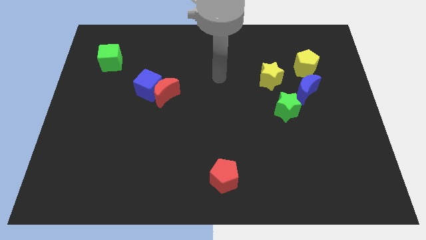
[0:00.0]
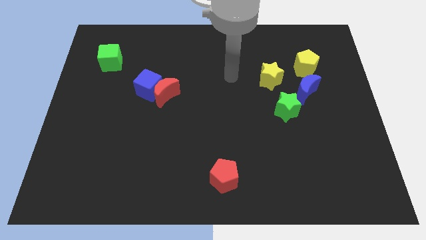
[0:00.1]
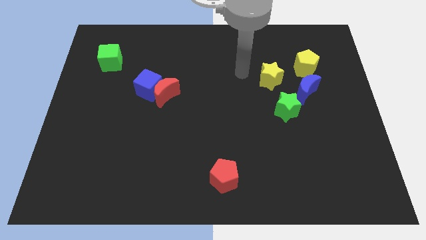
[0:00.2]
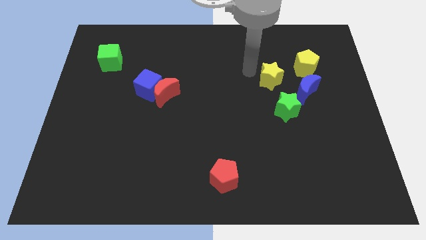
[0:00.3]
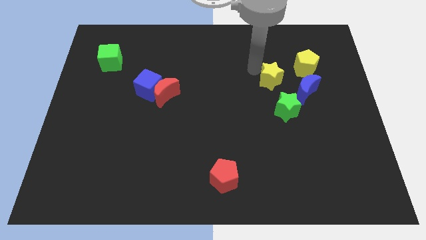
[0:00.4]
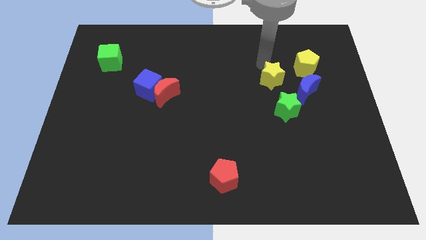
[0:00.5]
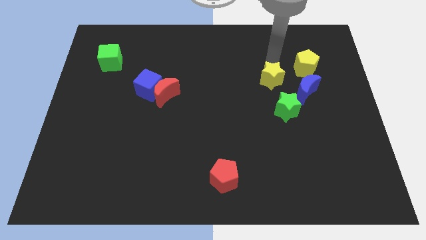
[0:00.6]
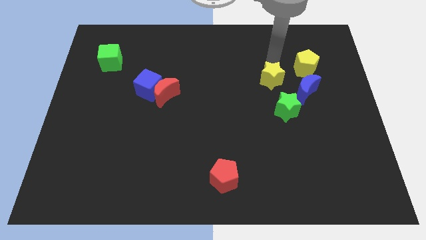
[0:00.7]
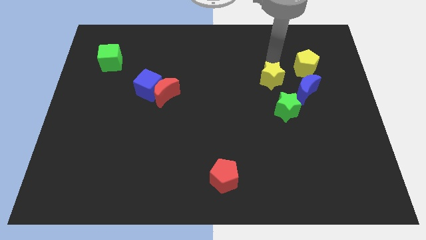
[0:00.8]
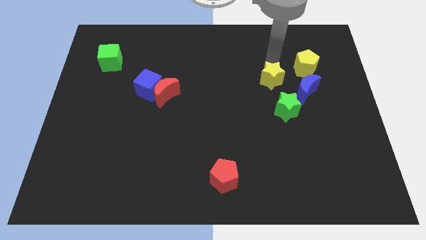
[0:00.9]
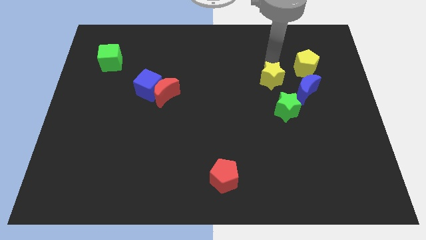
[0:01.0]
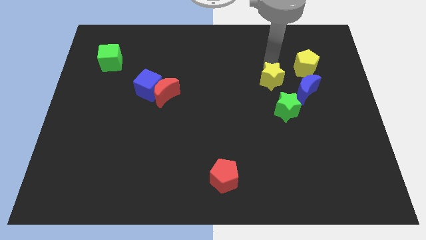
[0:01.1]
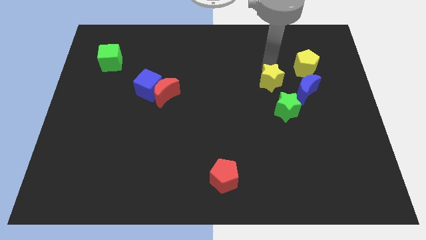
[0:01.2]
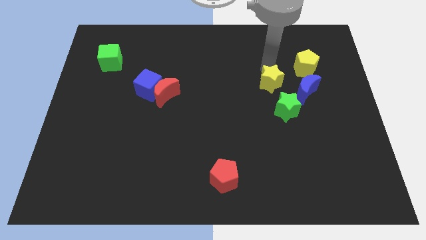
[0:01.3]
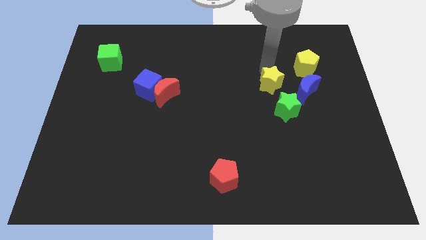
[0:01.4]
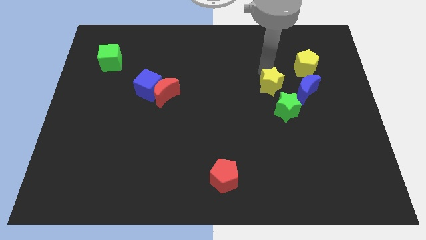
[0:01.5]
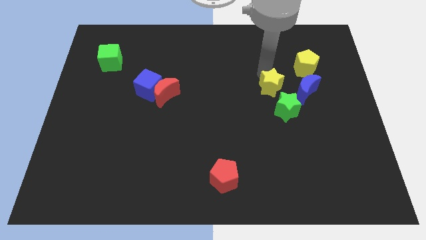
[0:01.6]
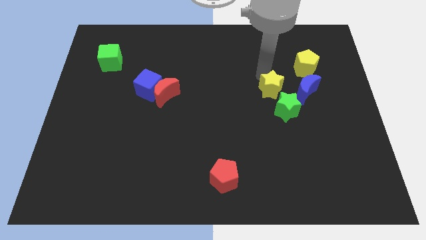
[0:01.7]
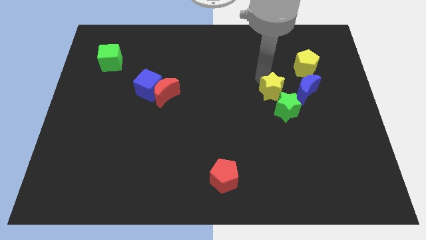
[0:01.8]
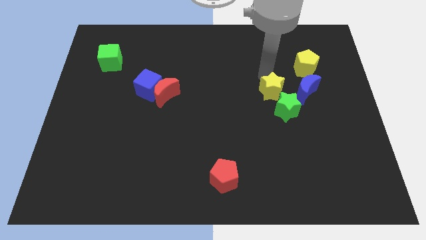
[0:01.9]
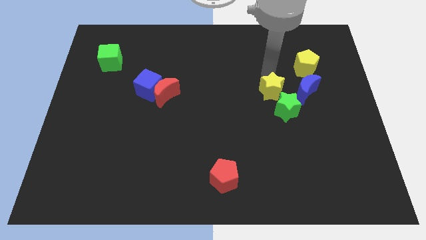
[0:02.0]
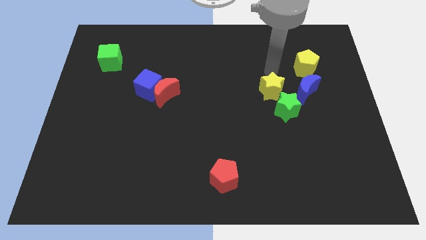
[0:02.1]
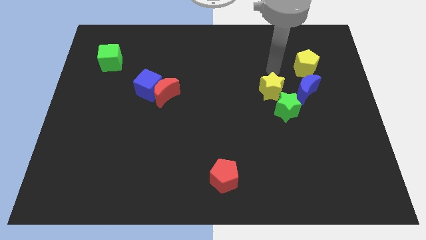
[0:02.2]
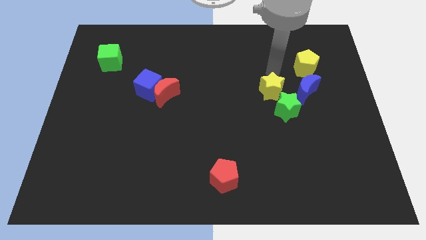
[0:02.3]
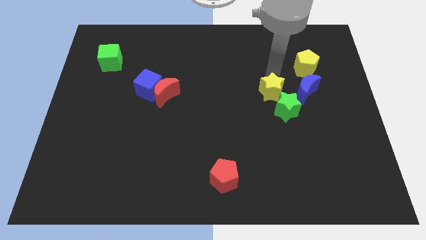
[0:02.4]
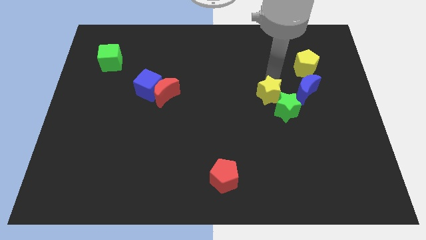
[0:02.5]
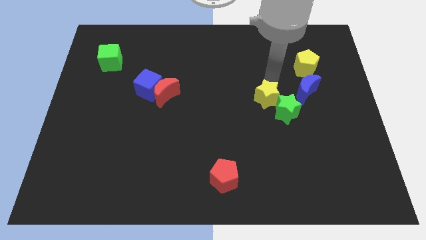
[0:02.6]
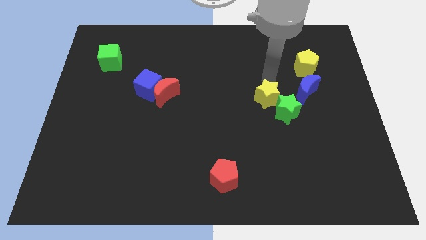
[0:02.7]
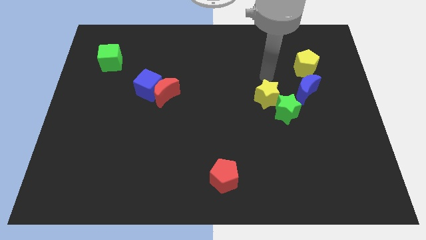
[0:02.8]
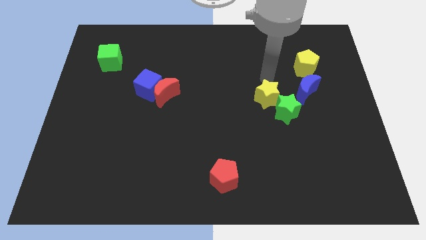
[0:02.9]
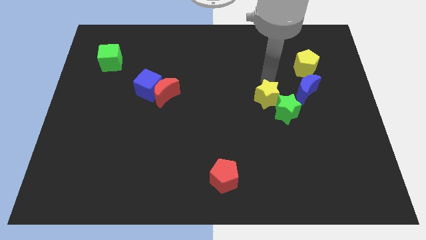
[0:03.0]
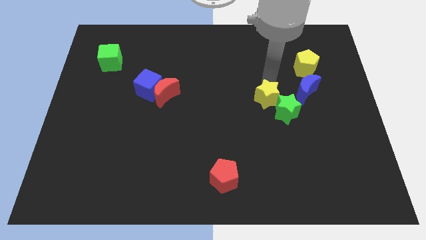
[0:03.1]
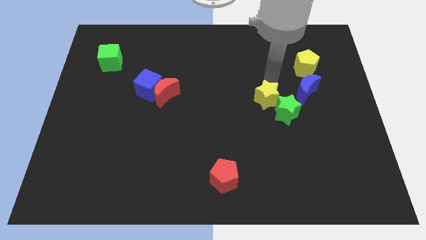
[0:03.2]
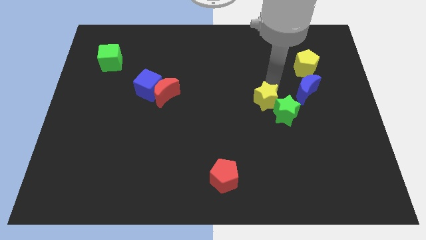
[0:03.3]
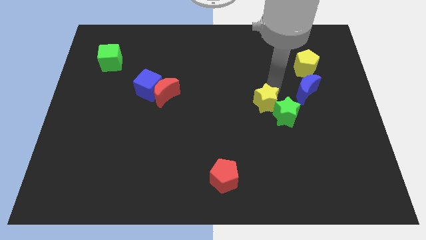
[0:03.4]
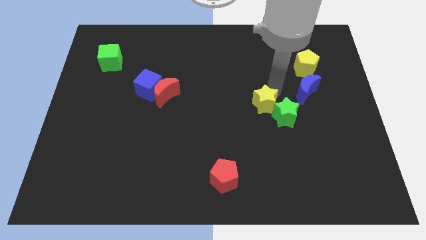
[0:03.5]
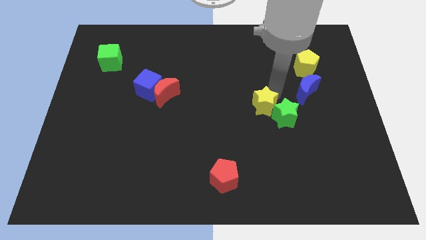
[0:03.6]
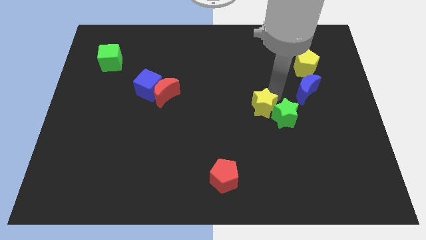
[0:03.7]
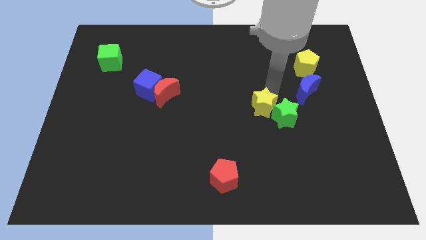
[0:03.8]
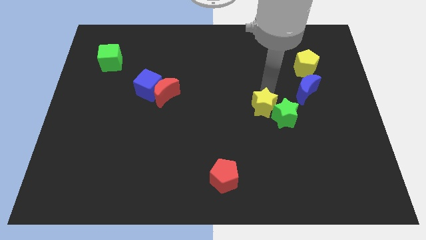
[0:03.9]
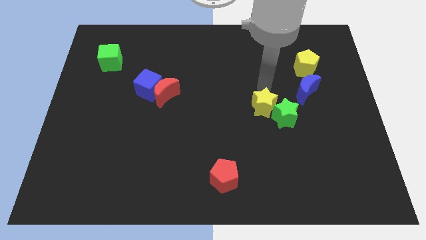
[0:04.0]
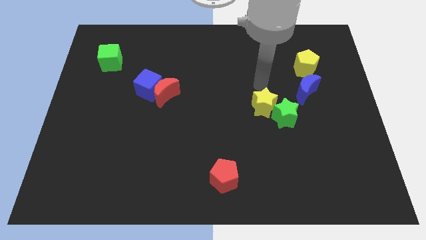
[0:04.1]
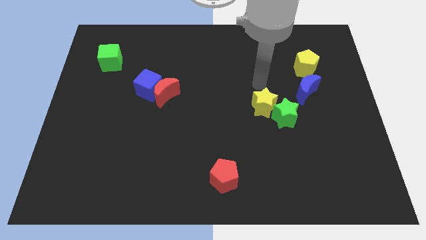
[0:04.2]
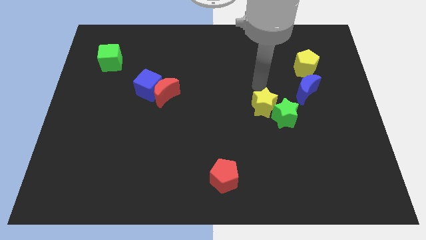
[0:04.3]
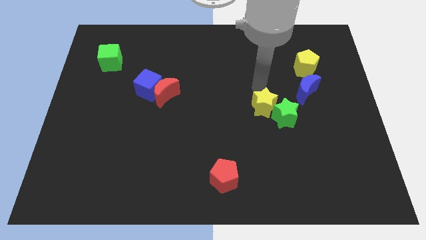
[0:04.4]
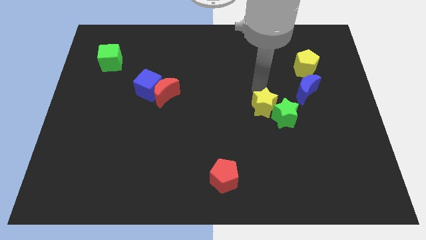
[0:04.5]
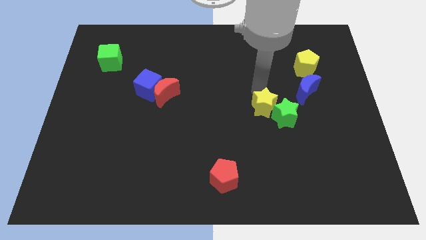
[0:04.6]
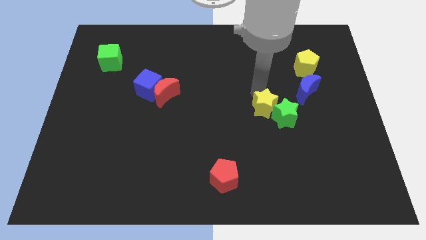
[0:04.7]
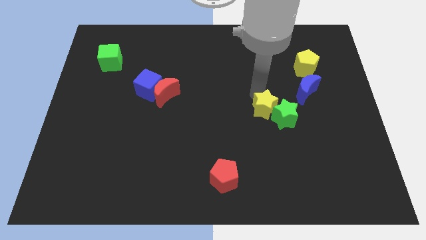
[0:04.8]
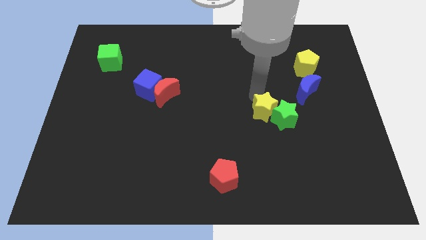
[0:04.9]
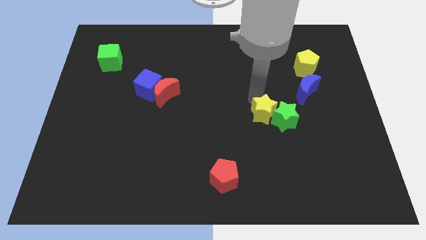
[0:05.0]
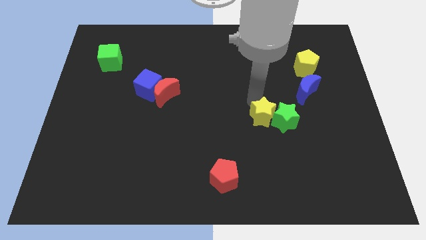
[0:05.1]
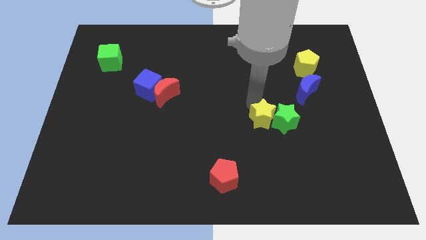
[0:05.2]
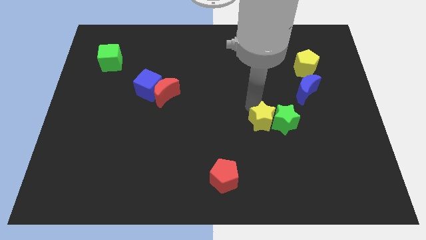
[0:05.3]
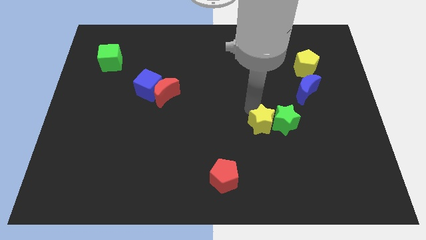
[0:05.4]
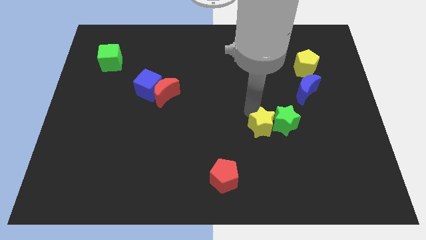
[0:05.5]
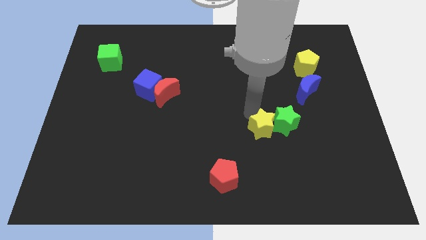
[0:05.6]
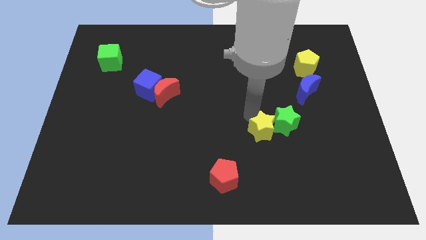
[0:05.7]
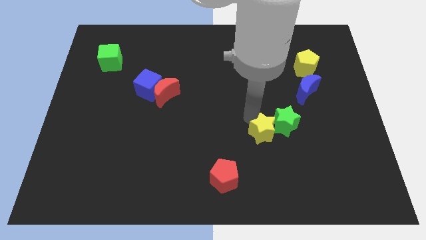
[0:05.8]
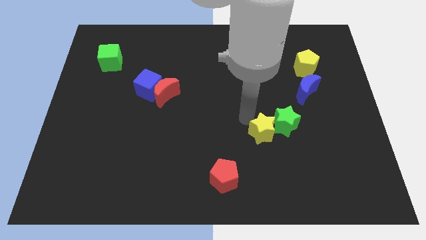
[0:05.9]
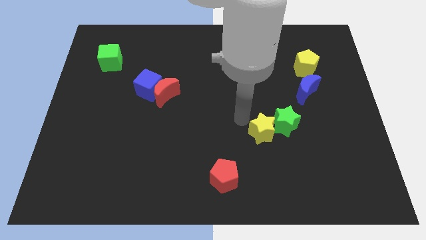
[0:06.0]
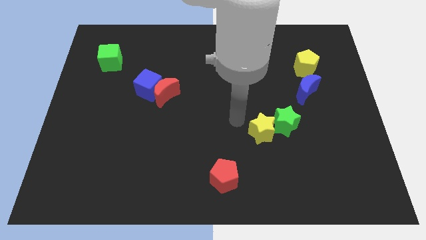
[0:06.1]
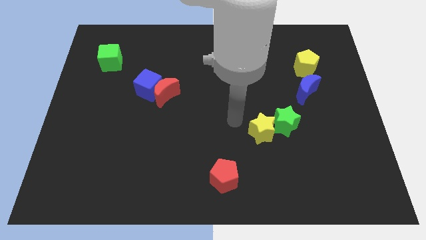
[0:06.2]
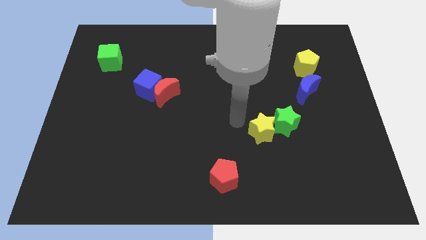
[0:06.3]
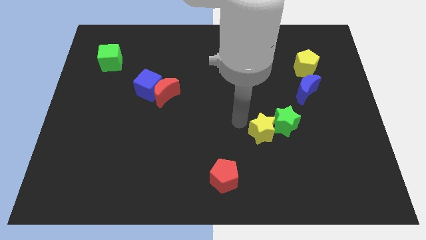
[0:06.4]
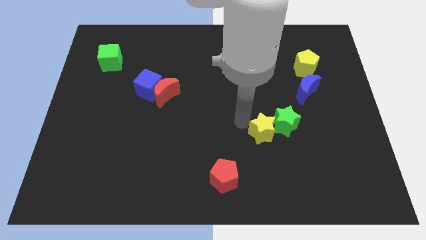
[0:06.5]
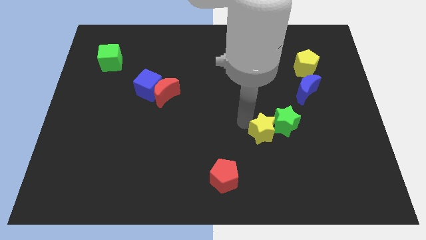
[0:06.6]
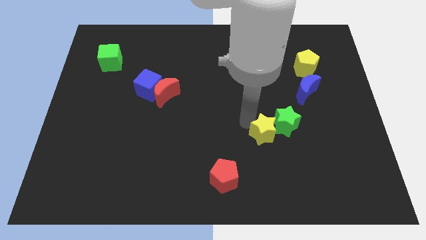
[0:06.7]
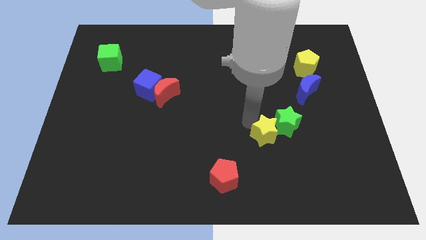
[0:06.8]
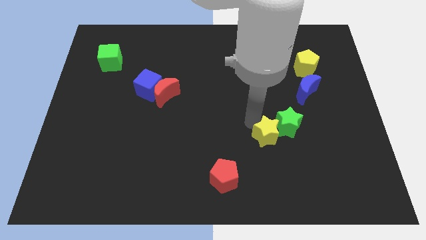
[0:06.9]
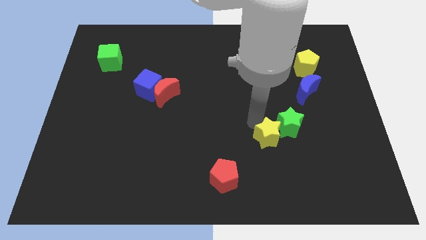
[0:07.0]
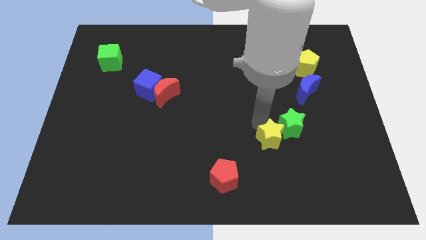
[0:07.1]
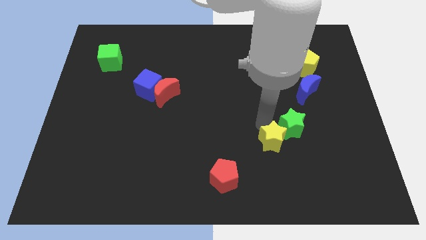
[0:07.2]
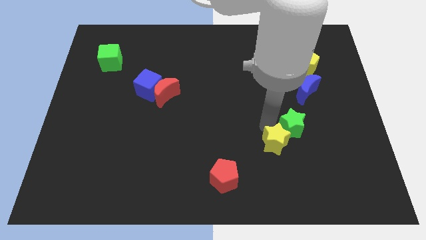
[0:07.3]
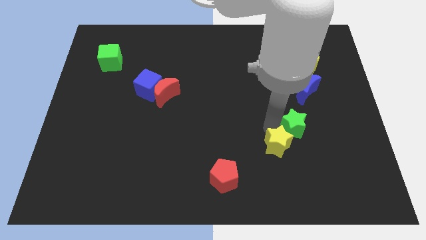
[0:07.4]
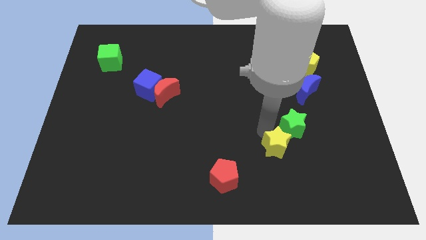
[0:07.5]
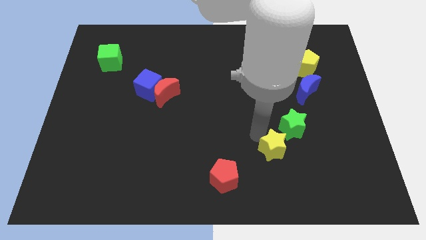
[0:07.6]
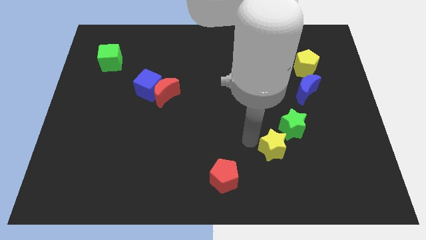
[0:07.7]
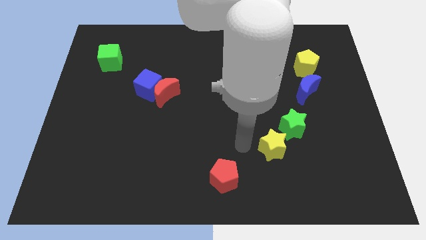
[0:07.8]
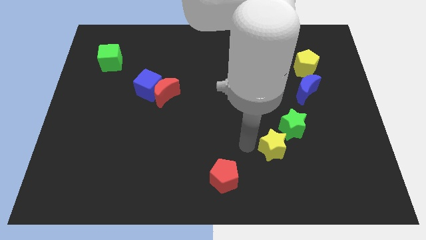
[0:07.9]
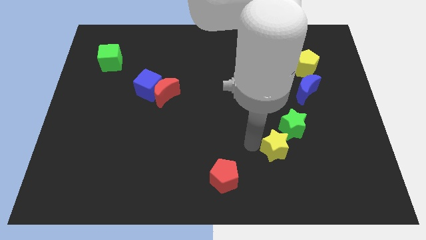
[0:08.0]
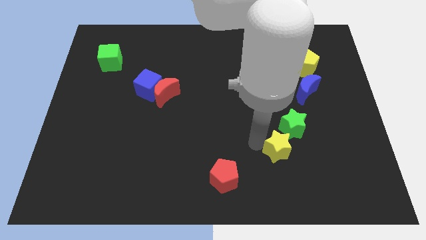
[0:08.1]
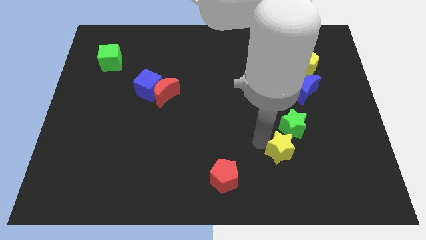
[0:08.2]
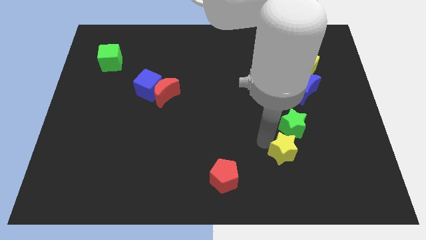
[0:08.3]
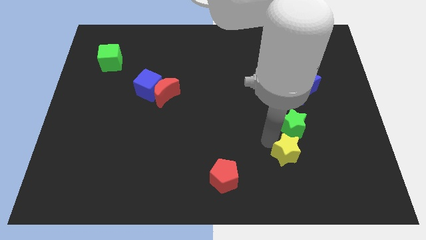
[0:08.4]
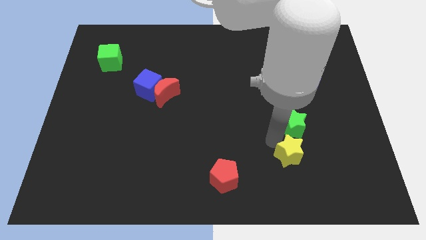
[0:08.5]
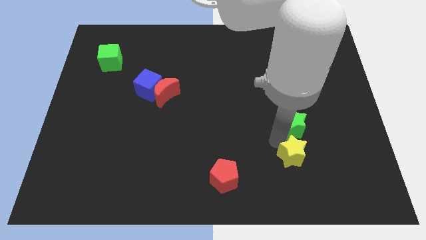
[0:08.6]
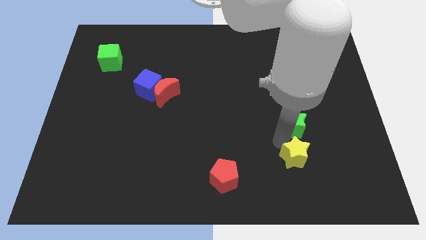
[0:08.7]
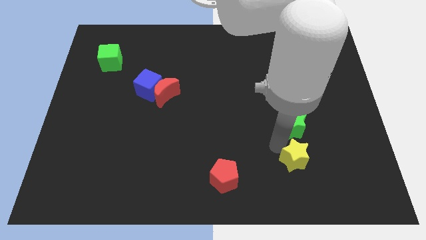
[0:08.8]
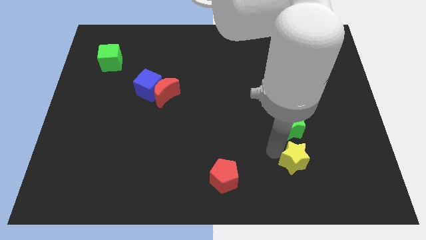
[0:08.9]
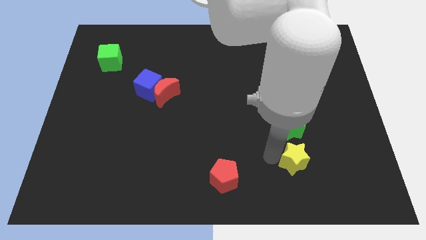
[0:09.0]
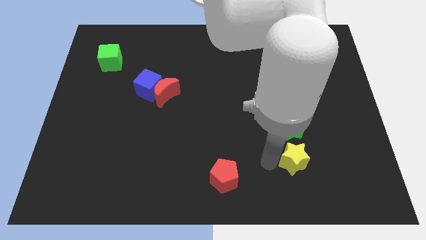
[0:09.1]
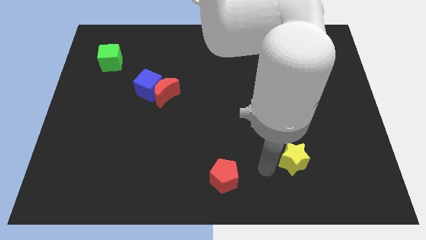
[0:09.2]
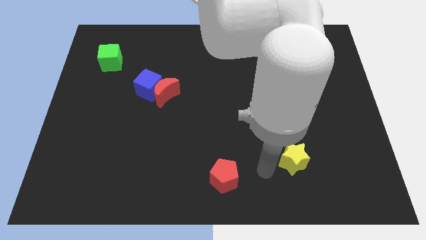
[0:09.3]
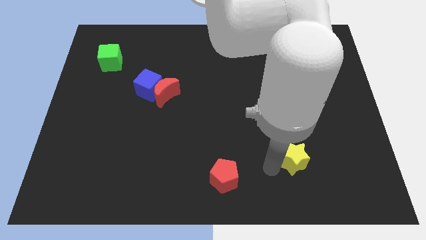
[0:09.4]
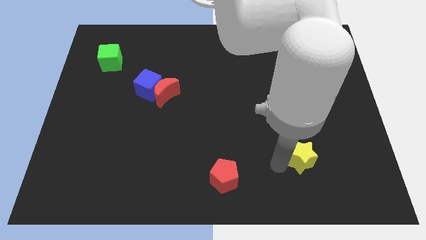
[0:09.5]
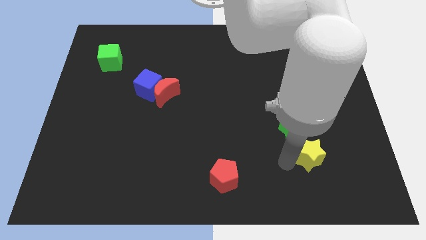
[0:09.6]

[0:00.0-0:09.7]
push the yellow star diagonally down and to the right of the green star
